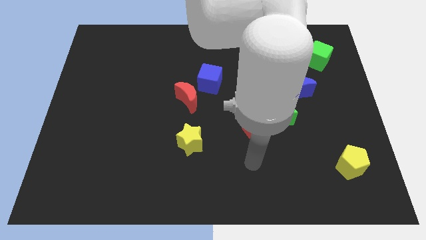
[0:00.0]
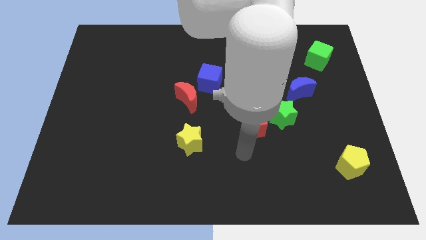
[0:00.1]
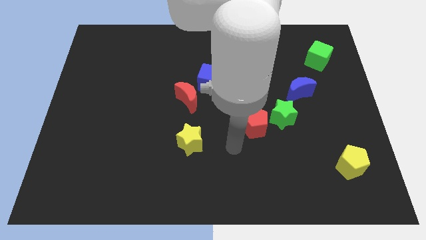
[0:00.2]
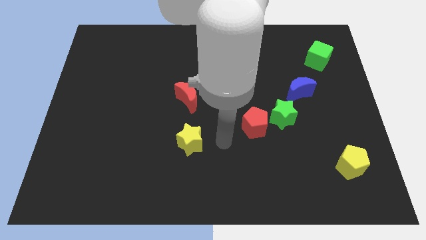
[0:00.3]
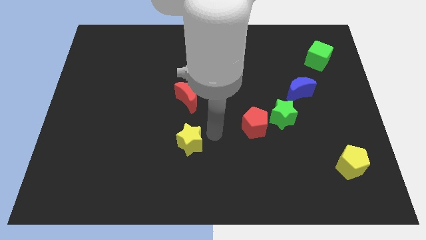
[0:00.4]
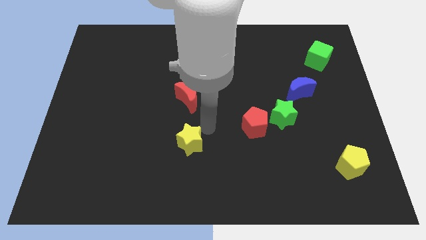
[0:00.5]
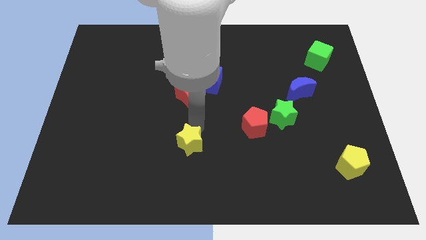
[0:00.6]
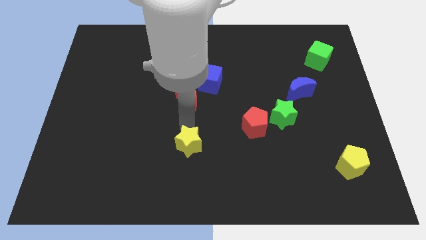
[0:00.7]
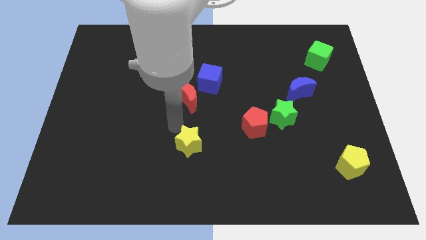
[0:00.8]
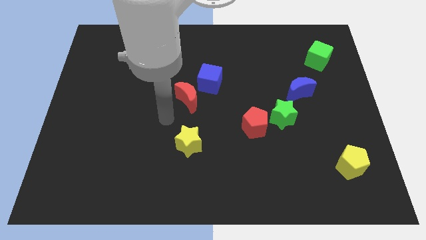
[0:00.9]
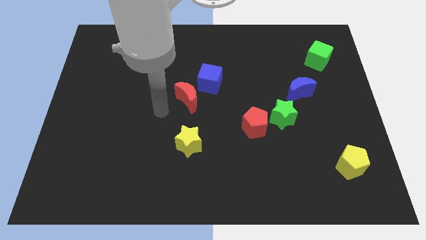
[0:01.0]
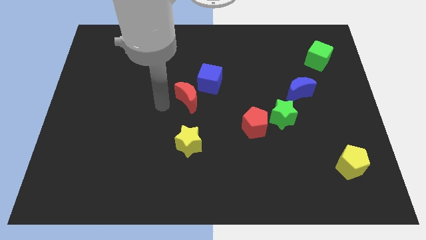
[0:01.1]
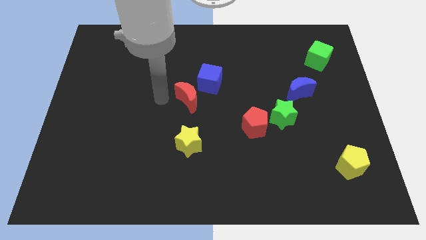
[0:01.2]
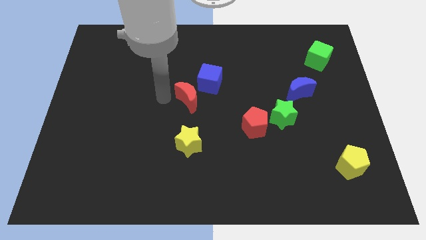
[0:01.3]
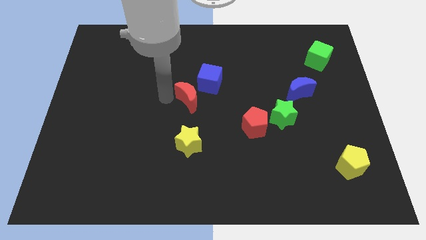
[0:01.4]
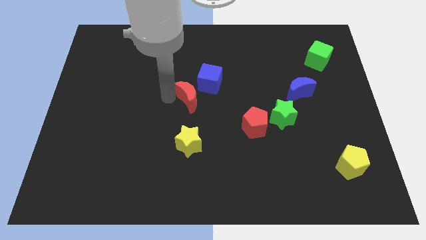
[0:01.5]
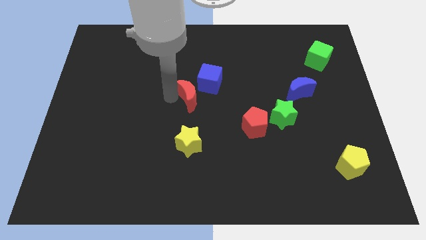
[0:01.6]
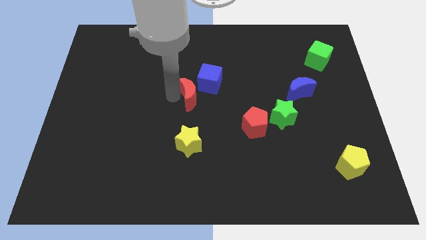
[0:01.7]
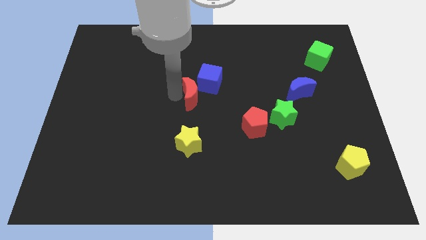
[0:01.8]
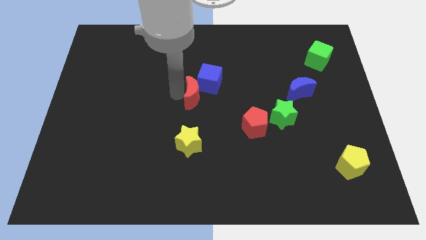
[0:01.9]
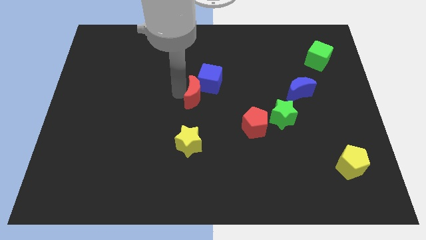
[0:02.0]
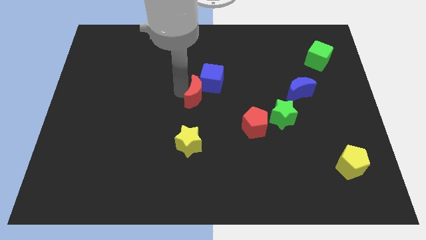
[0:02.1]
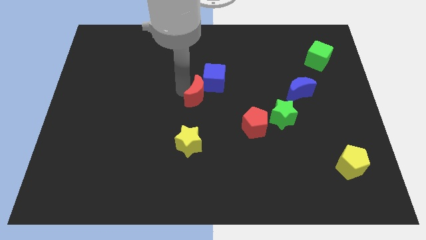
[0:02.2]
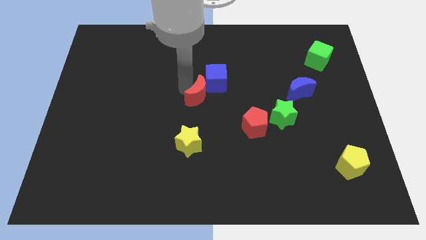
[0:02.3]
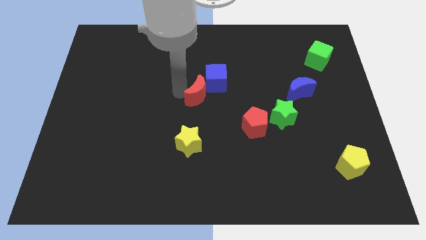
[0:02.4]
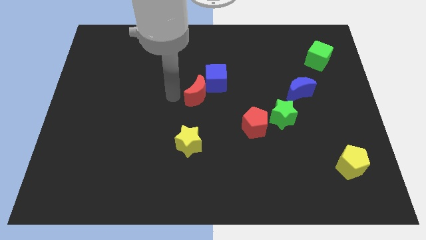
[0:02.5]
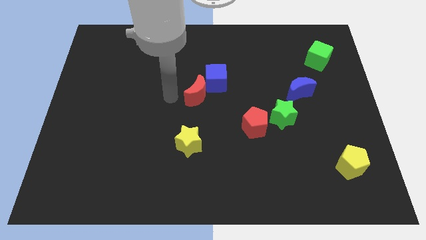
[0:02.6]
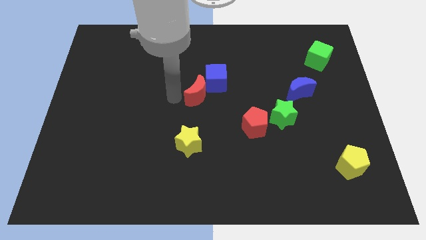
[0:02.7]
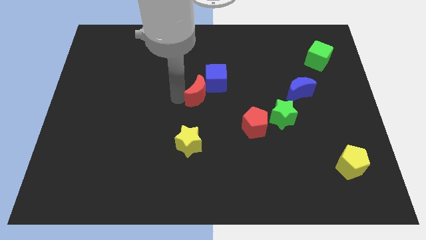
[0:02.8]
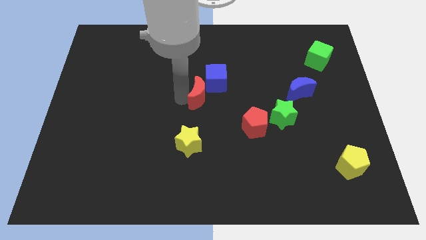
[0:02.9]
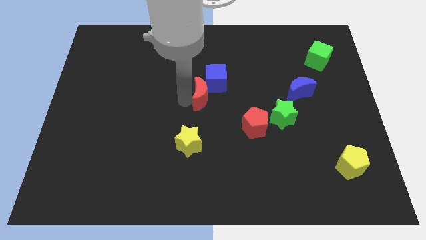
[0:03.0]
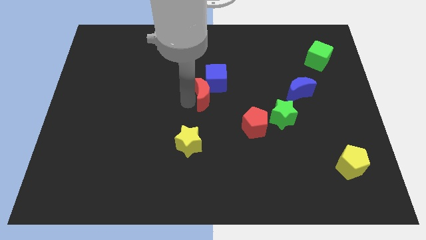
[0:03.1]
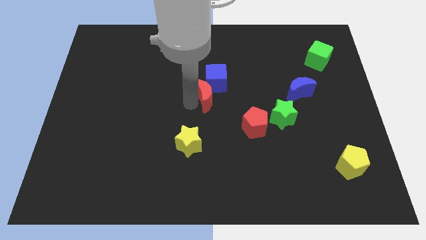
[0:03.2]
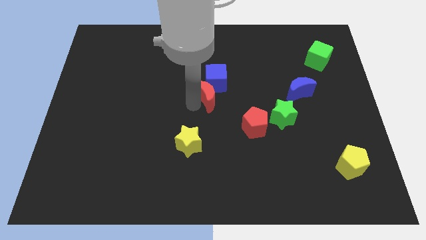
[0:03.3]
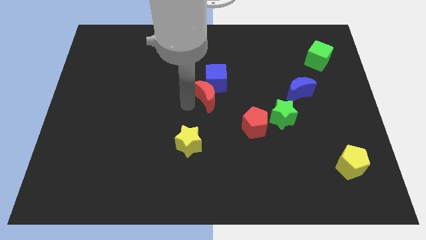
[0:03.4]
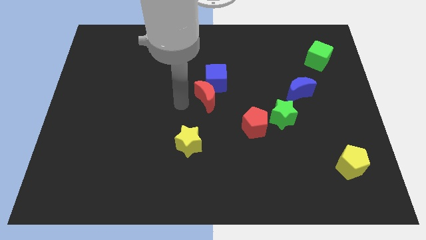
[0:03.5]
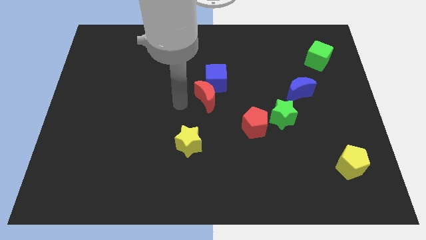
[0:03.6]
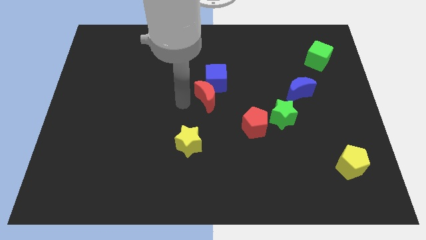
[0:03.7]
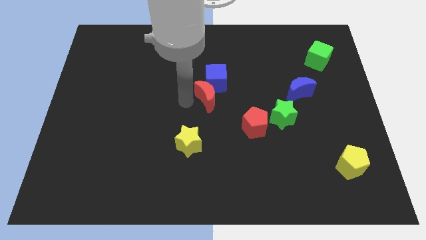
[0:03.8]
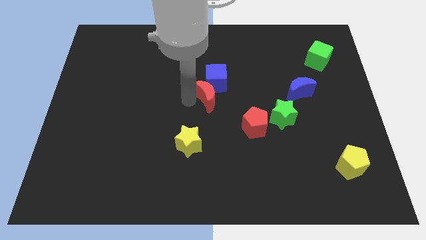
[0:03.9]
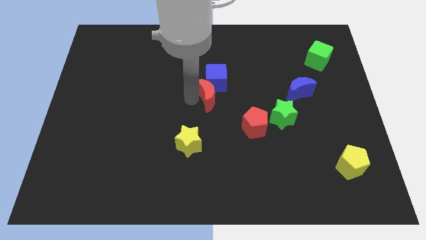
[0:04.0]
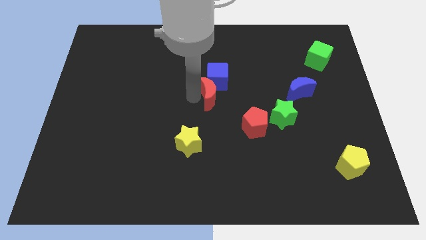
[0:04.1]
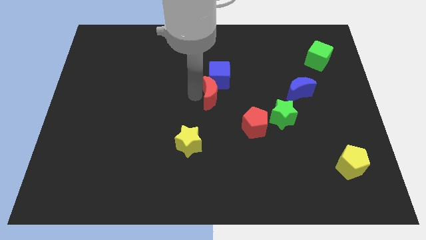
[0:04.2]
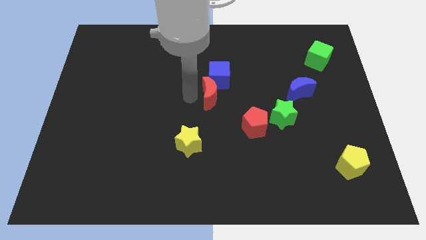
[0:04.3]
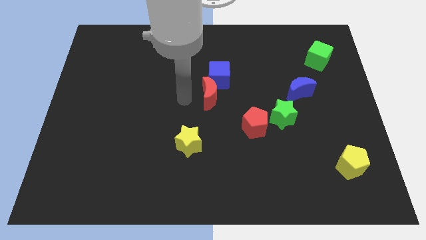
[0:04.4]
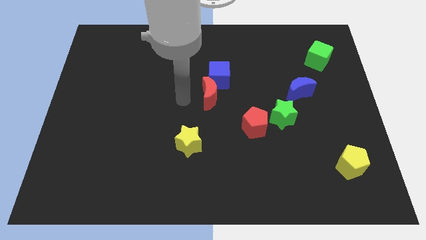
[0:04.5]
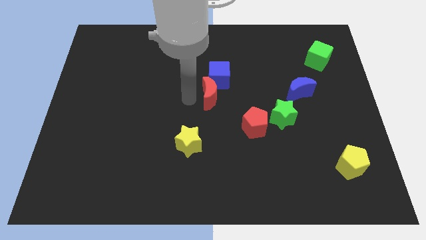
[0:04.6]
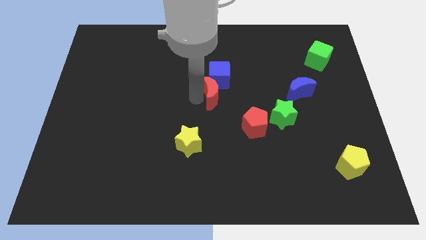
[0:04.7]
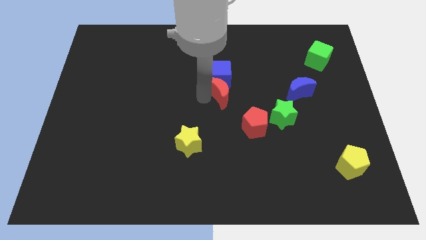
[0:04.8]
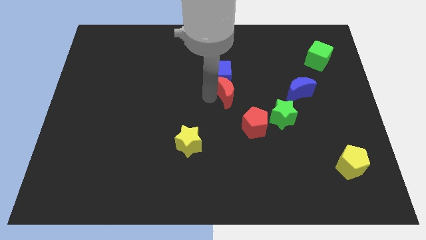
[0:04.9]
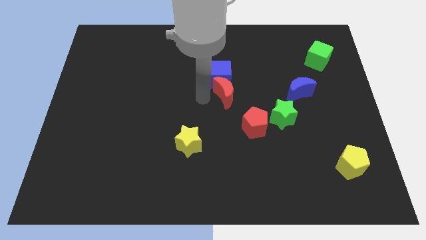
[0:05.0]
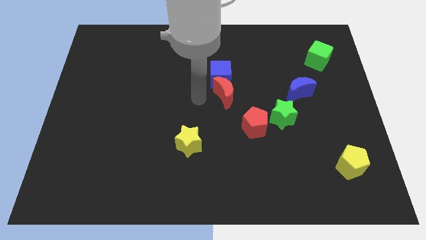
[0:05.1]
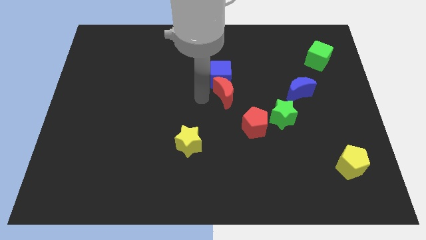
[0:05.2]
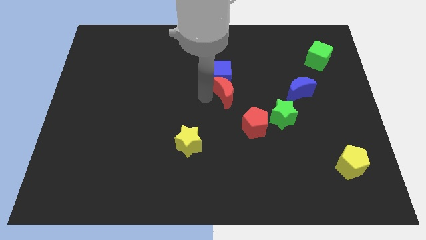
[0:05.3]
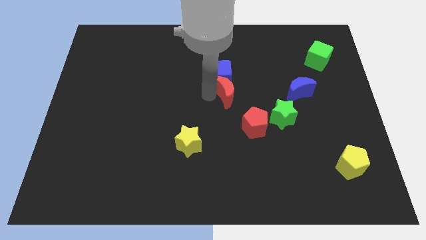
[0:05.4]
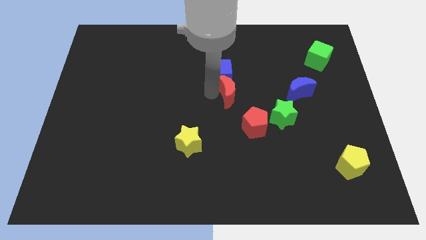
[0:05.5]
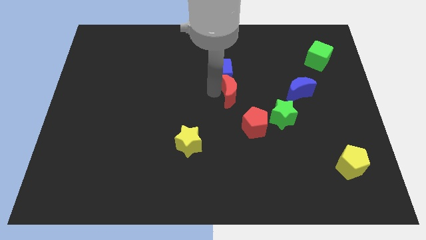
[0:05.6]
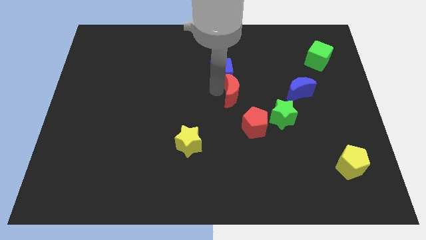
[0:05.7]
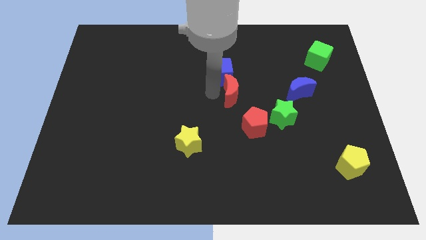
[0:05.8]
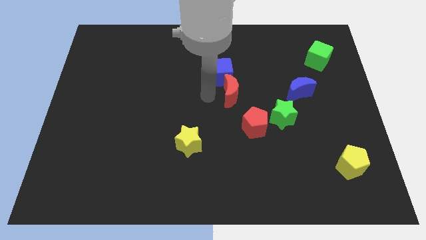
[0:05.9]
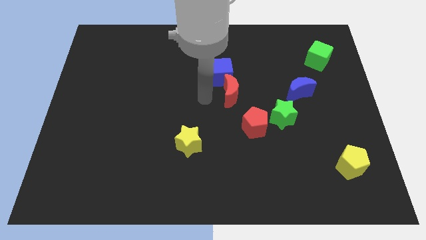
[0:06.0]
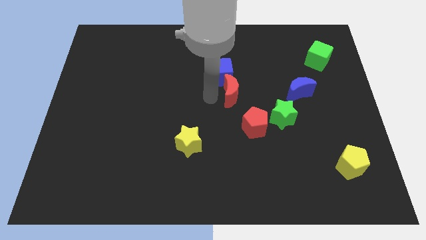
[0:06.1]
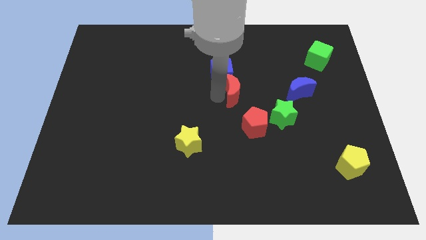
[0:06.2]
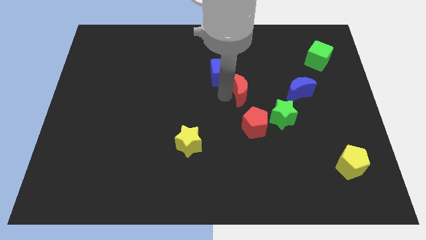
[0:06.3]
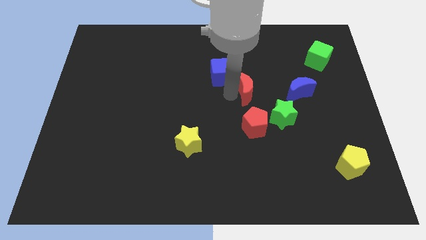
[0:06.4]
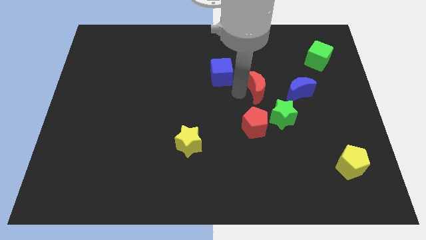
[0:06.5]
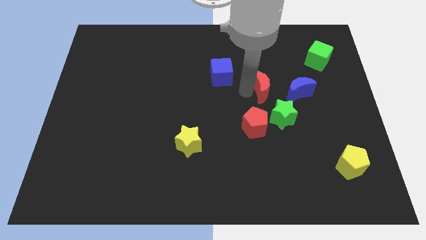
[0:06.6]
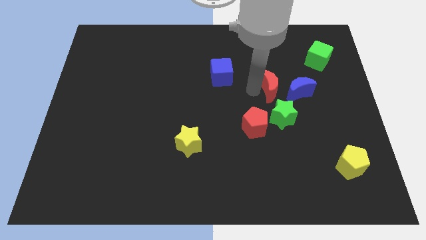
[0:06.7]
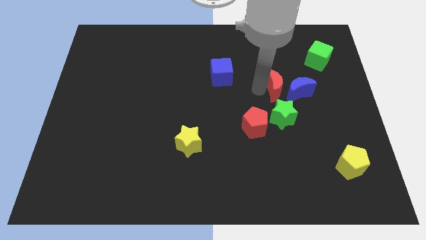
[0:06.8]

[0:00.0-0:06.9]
put the red moon to the blue moon
